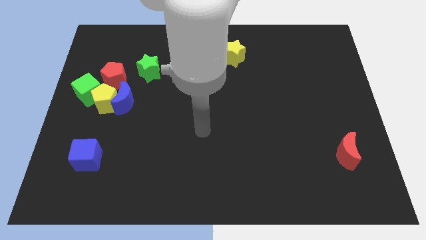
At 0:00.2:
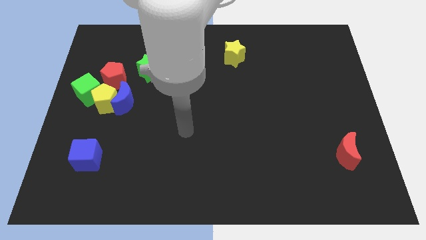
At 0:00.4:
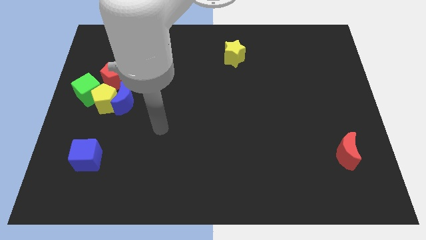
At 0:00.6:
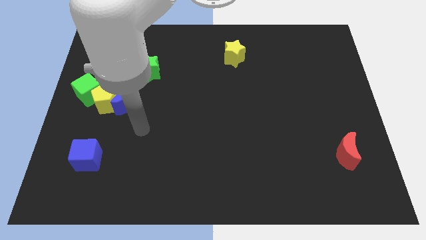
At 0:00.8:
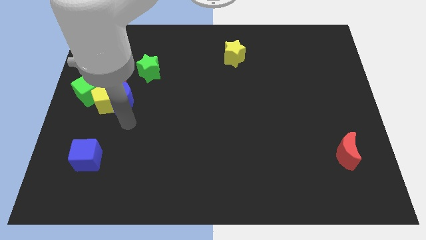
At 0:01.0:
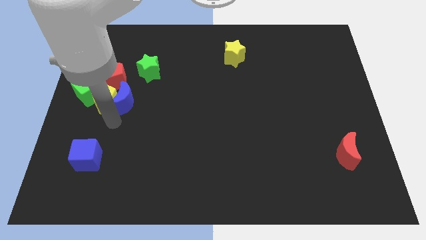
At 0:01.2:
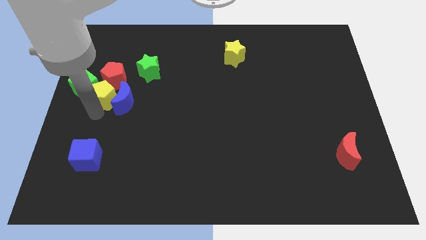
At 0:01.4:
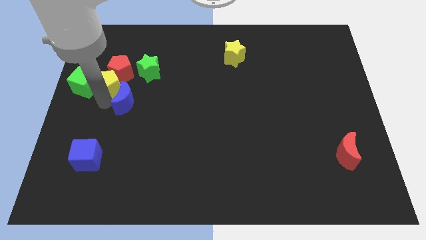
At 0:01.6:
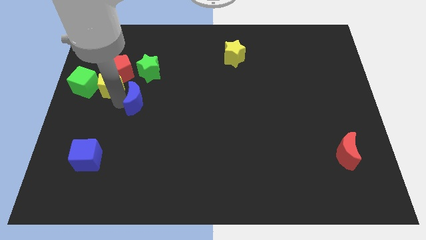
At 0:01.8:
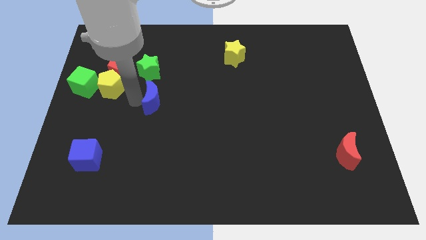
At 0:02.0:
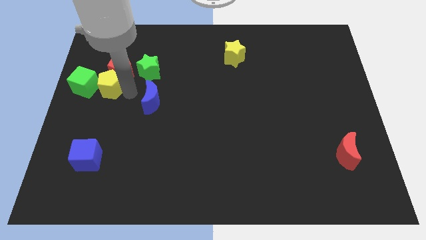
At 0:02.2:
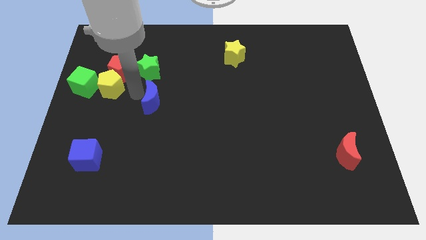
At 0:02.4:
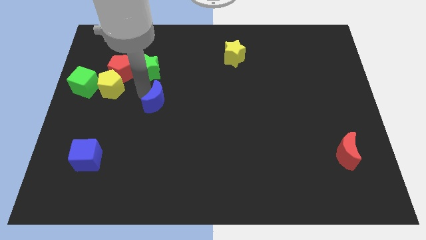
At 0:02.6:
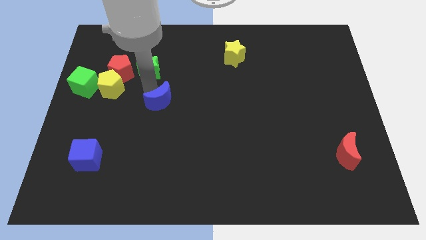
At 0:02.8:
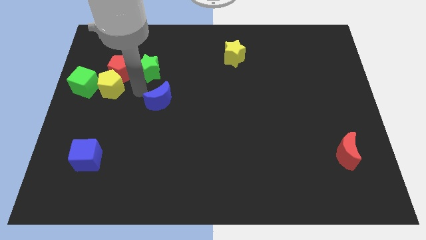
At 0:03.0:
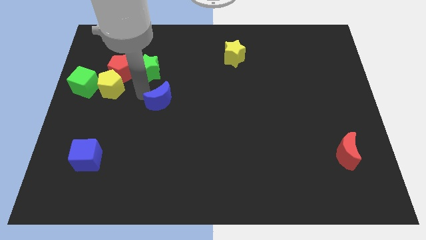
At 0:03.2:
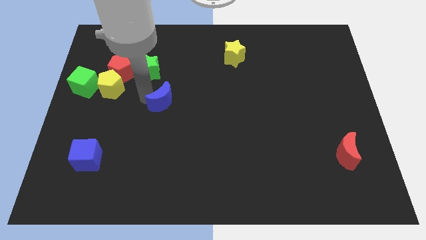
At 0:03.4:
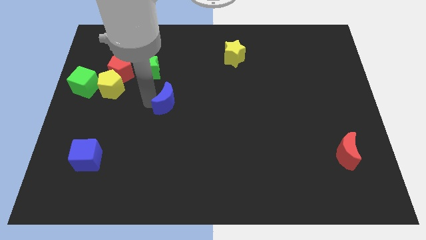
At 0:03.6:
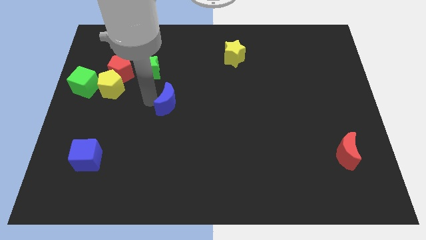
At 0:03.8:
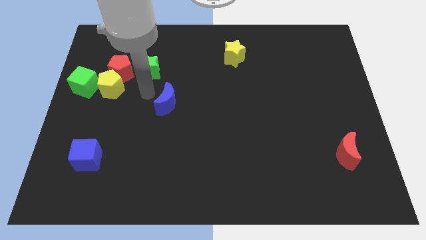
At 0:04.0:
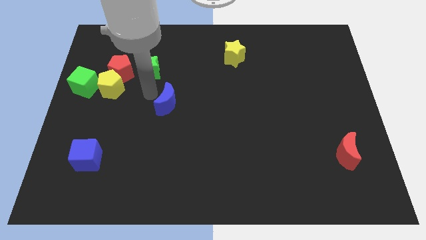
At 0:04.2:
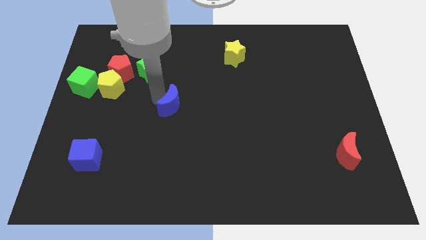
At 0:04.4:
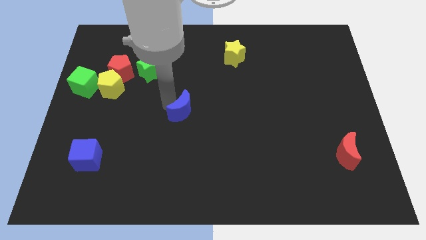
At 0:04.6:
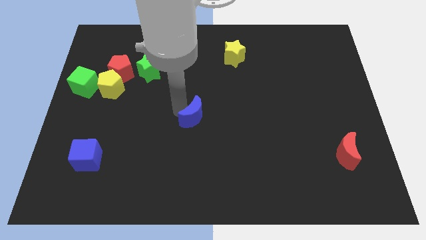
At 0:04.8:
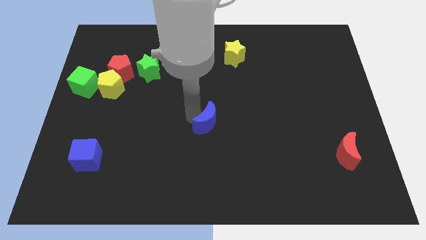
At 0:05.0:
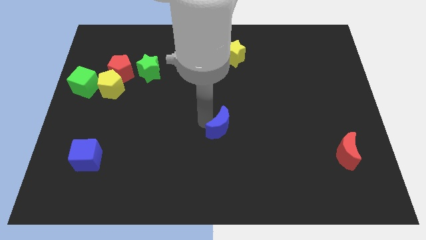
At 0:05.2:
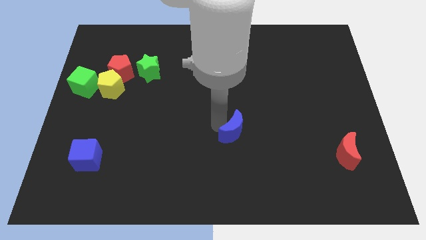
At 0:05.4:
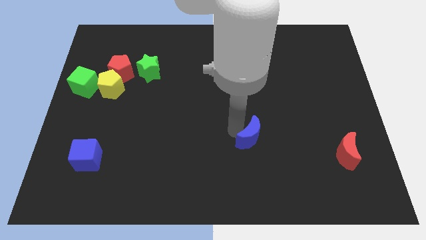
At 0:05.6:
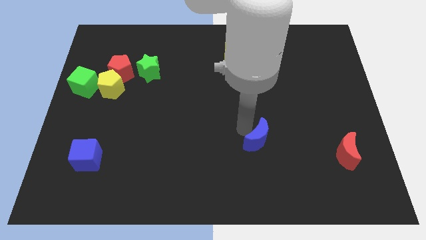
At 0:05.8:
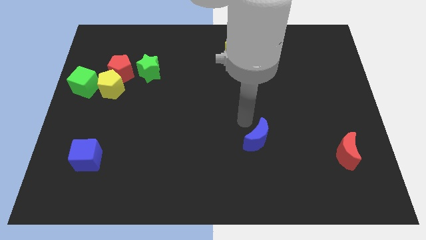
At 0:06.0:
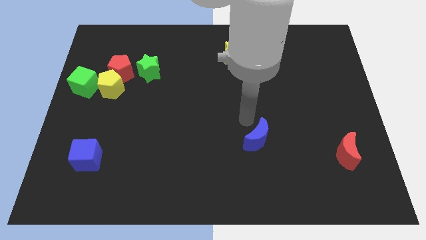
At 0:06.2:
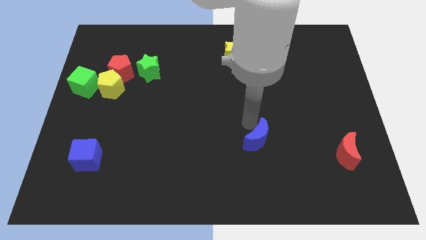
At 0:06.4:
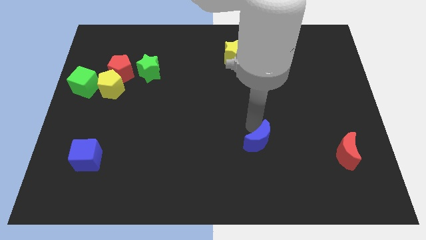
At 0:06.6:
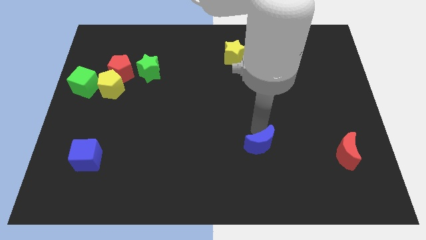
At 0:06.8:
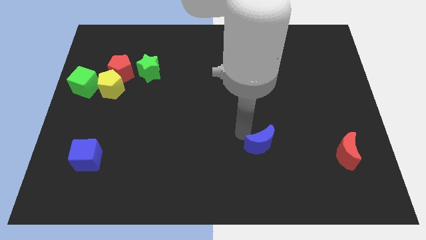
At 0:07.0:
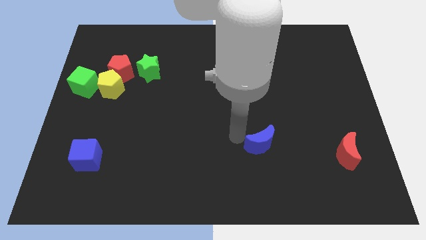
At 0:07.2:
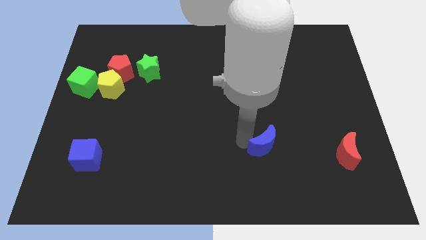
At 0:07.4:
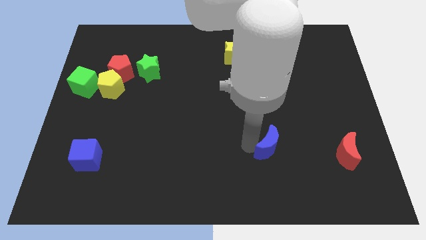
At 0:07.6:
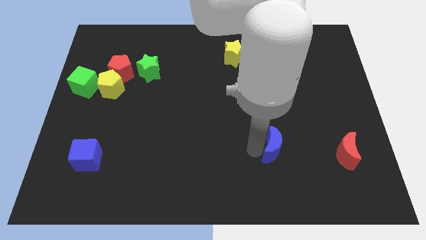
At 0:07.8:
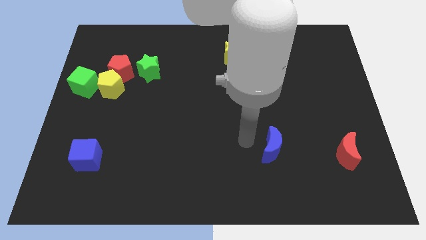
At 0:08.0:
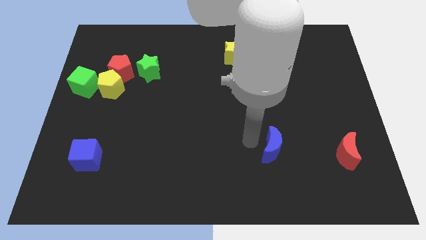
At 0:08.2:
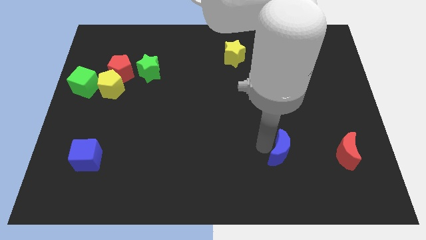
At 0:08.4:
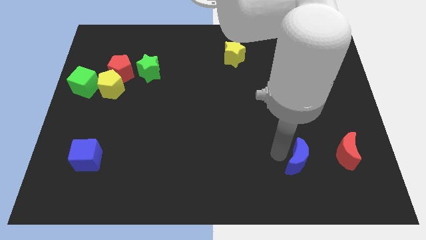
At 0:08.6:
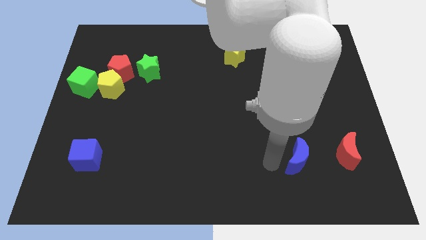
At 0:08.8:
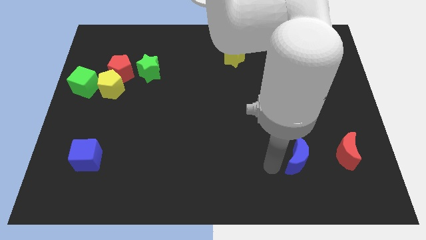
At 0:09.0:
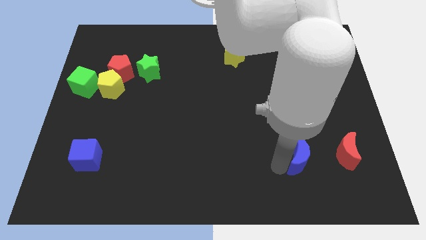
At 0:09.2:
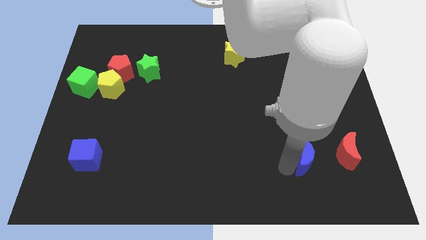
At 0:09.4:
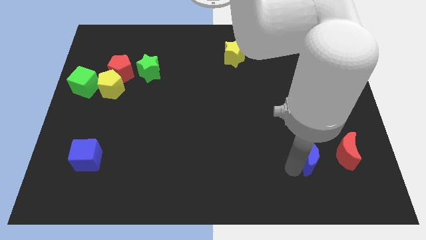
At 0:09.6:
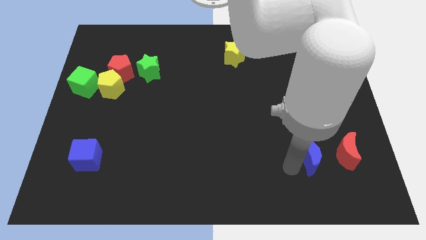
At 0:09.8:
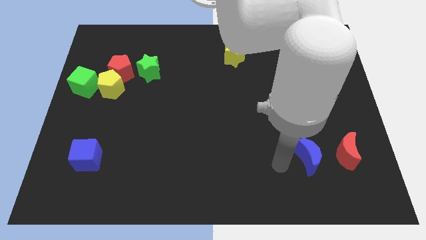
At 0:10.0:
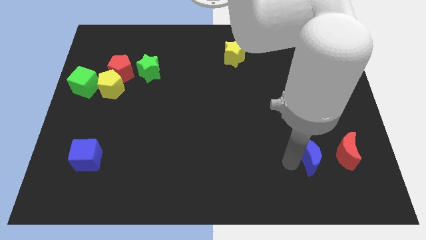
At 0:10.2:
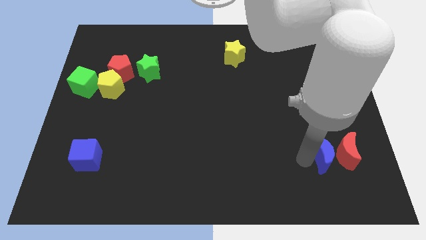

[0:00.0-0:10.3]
push the blue moon close to the red moon

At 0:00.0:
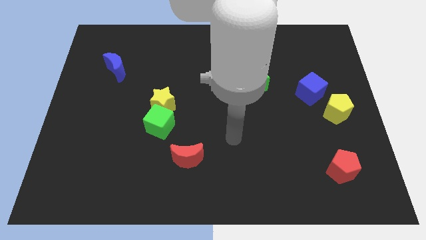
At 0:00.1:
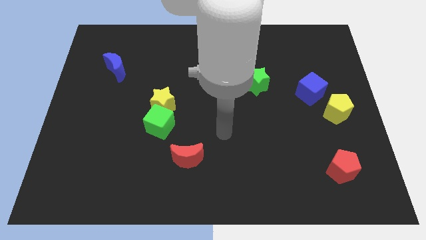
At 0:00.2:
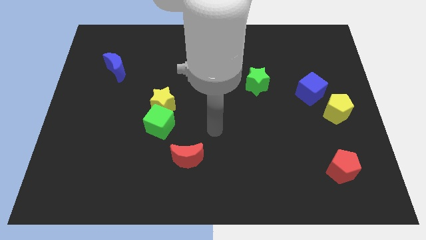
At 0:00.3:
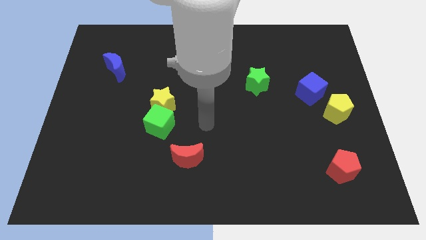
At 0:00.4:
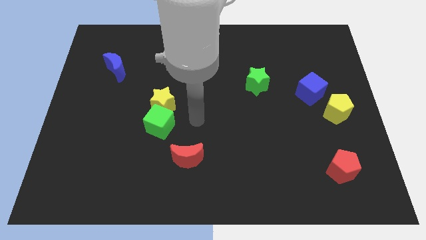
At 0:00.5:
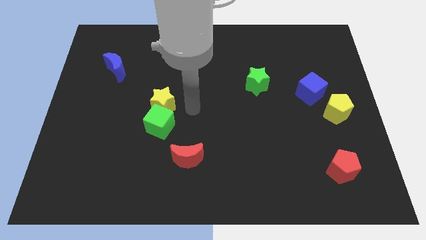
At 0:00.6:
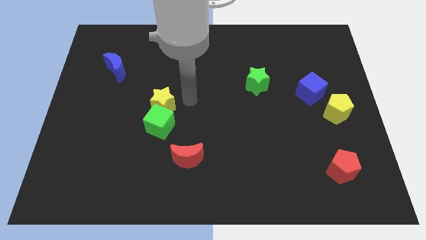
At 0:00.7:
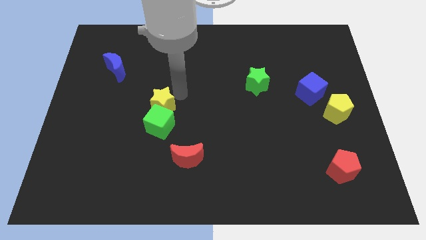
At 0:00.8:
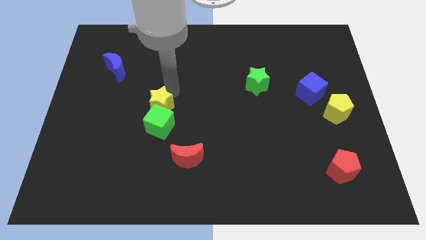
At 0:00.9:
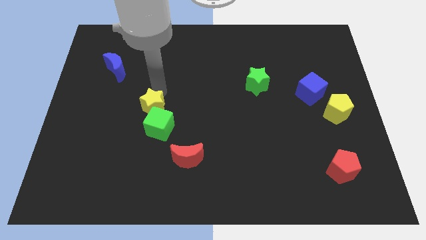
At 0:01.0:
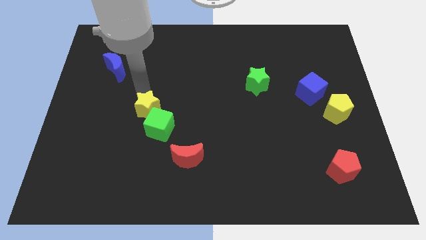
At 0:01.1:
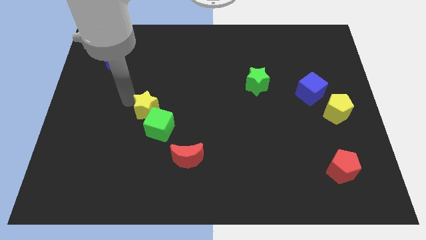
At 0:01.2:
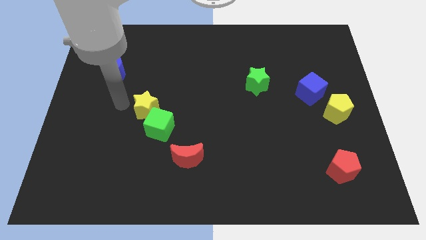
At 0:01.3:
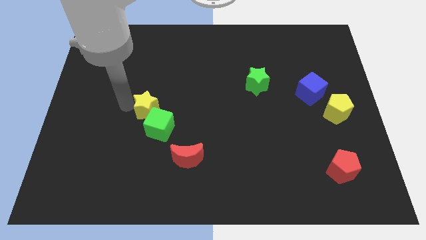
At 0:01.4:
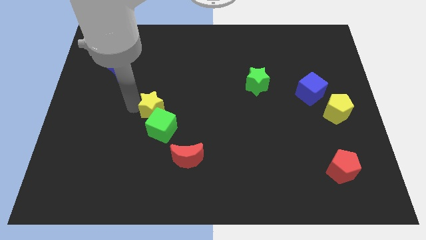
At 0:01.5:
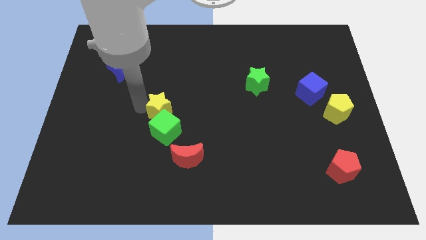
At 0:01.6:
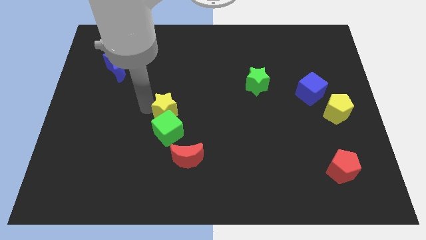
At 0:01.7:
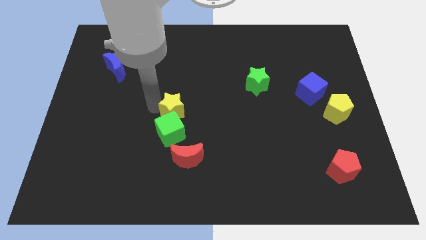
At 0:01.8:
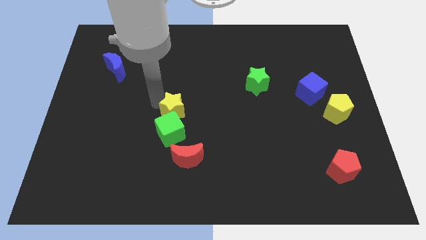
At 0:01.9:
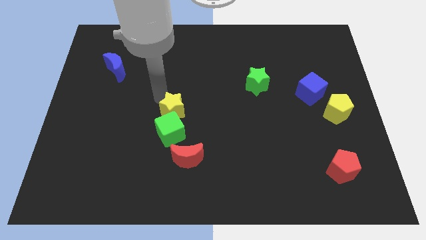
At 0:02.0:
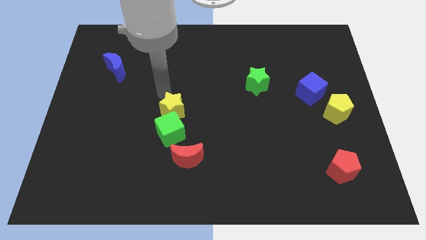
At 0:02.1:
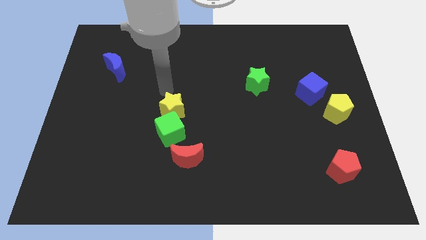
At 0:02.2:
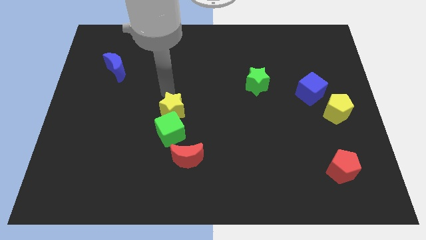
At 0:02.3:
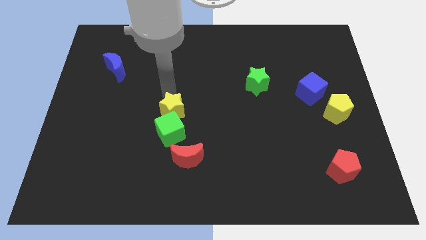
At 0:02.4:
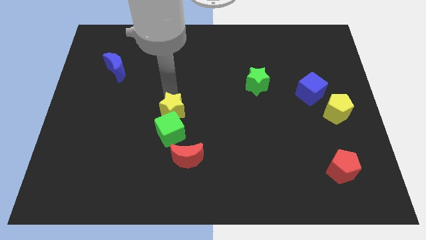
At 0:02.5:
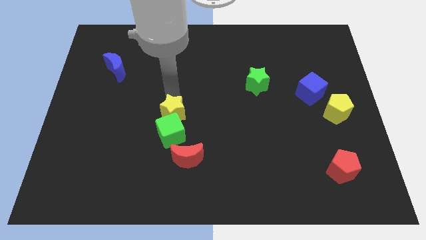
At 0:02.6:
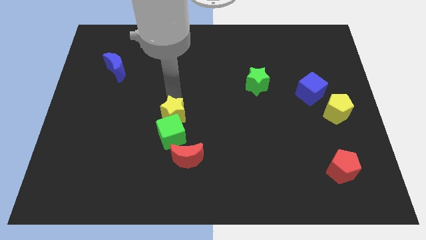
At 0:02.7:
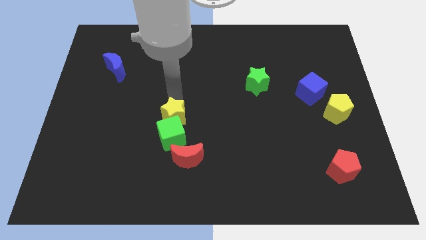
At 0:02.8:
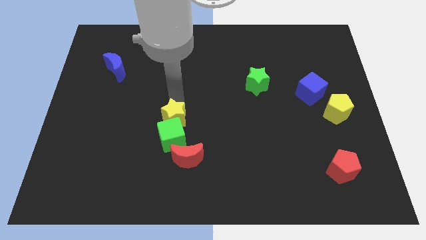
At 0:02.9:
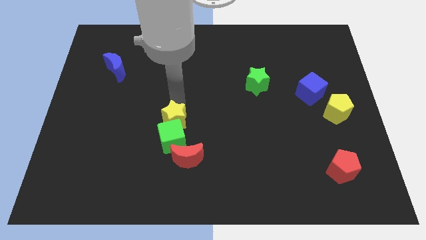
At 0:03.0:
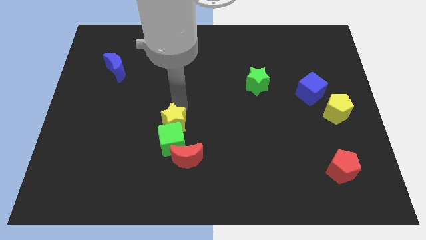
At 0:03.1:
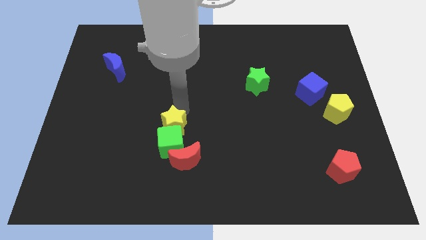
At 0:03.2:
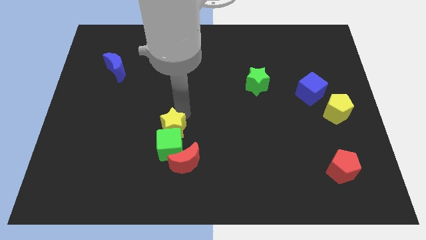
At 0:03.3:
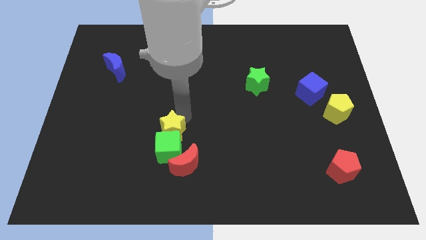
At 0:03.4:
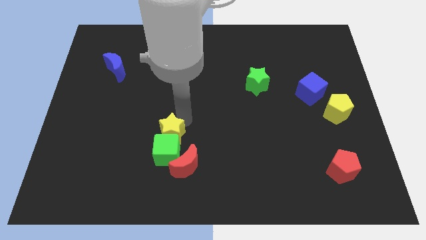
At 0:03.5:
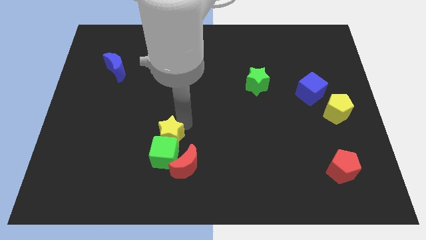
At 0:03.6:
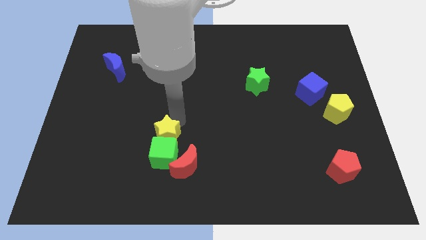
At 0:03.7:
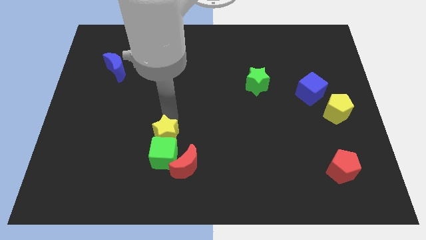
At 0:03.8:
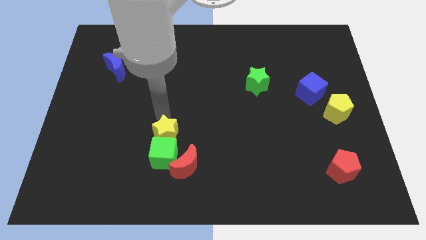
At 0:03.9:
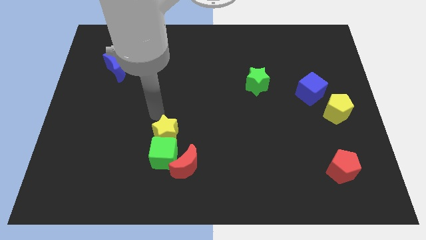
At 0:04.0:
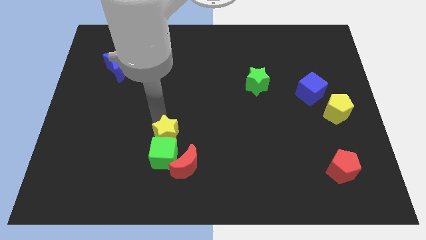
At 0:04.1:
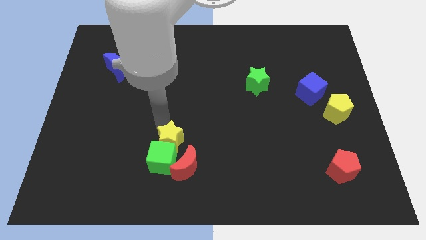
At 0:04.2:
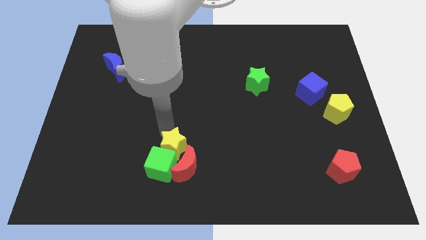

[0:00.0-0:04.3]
push the yellow star next to the red moon
